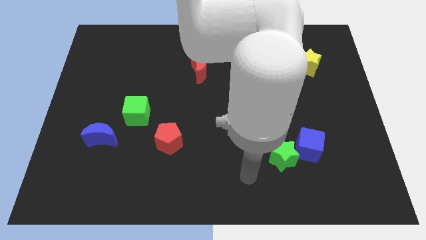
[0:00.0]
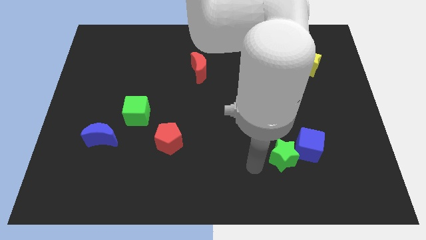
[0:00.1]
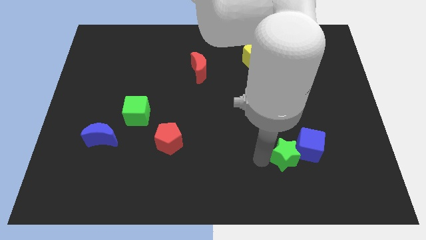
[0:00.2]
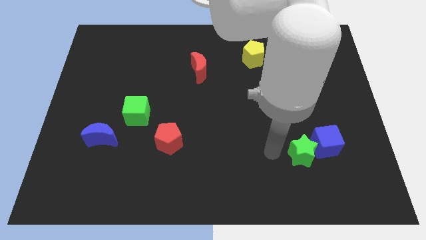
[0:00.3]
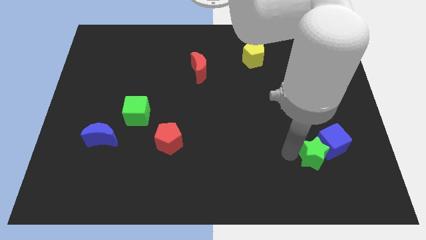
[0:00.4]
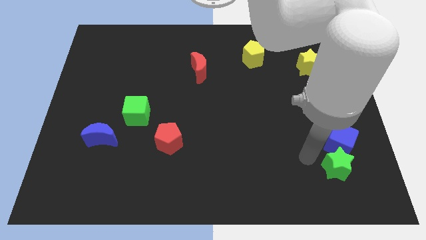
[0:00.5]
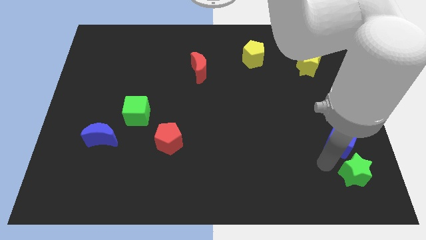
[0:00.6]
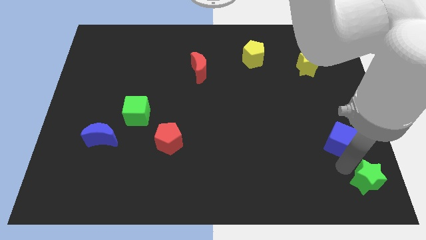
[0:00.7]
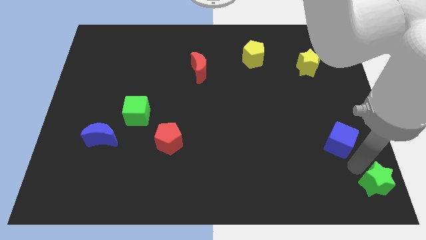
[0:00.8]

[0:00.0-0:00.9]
pull the blue cube apart from the green star

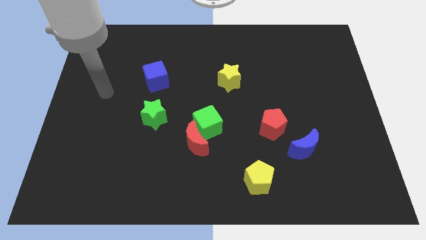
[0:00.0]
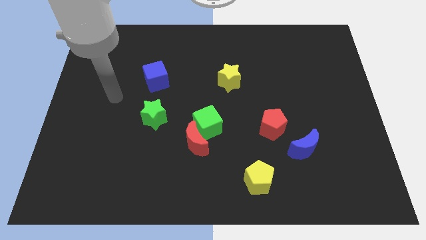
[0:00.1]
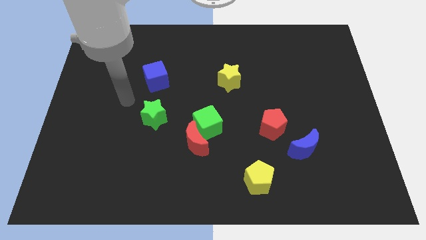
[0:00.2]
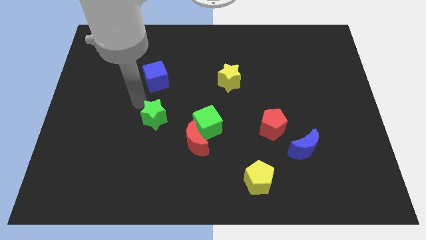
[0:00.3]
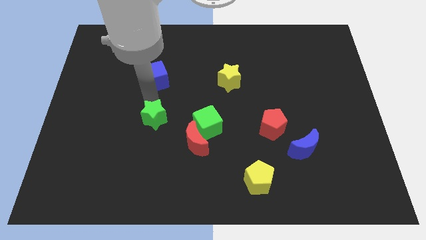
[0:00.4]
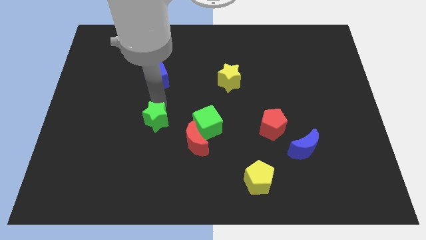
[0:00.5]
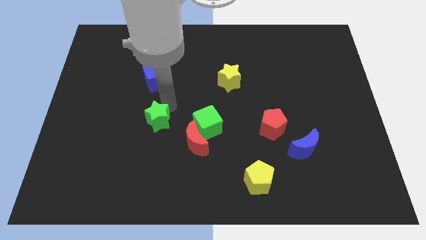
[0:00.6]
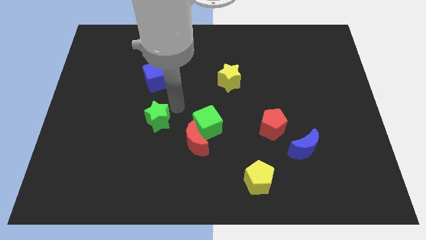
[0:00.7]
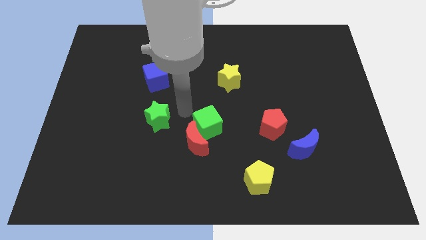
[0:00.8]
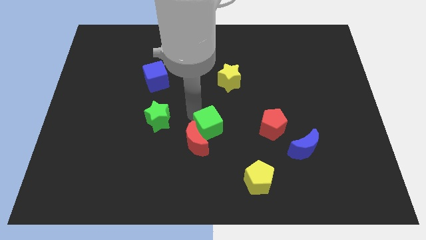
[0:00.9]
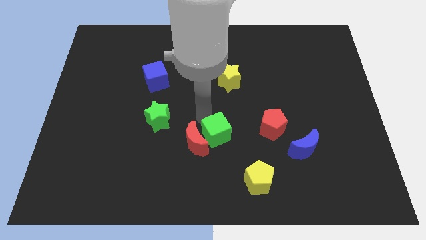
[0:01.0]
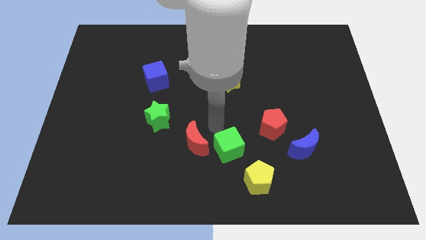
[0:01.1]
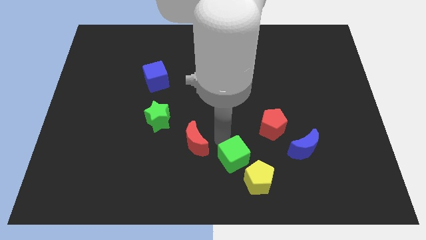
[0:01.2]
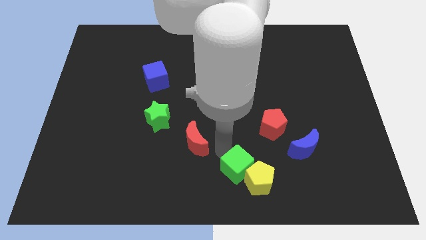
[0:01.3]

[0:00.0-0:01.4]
move the red moon away from the green cube

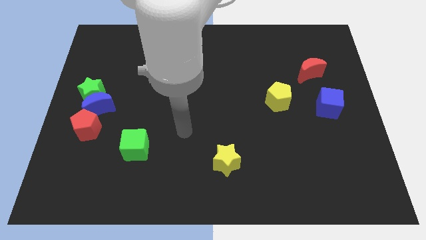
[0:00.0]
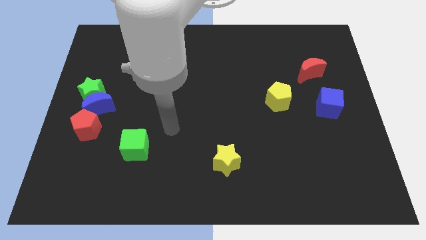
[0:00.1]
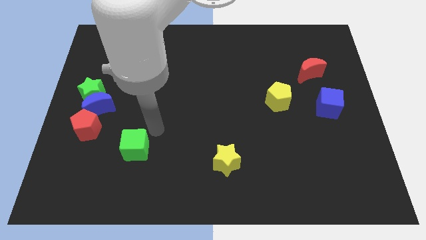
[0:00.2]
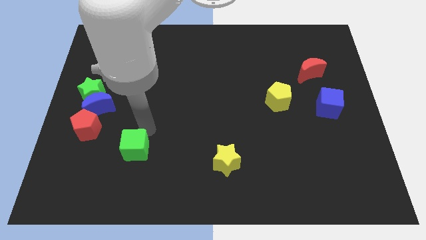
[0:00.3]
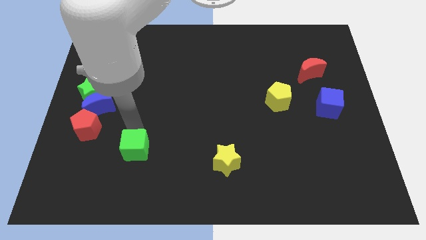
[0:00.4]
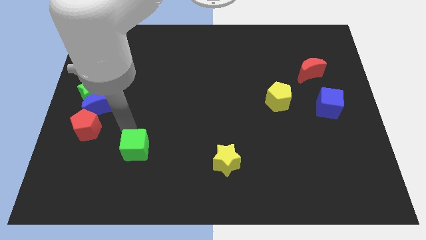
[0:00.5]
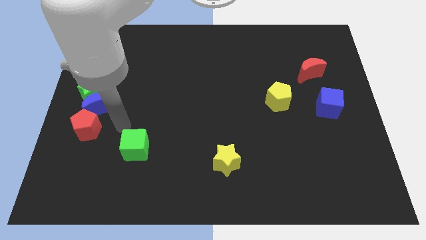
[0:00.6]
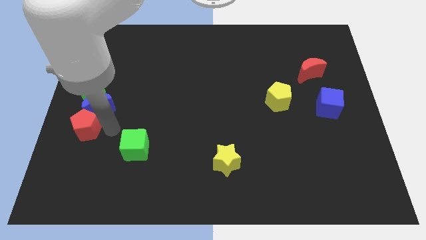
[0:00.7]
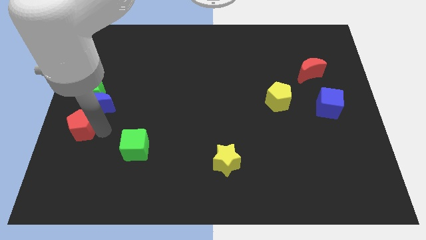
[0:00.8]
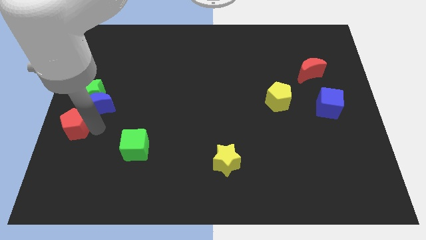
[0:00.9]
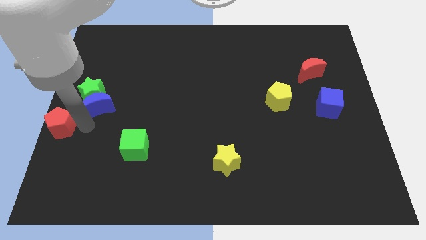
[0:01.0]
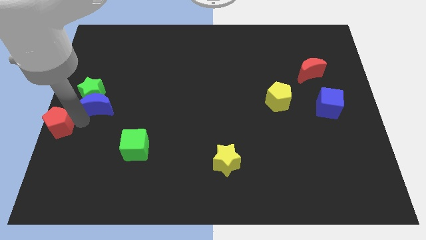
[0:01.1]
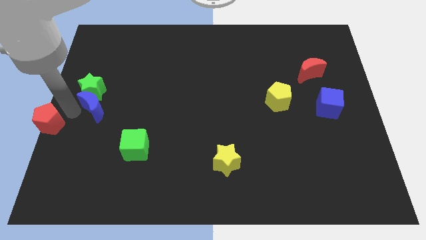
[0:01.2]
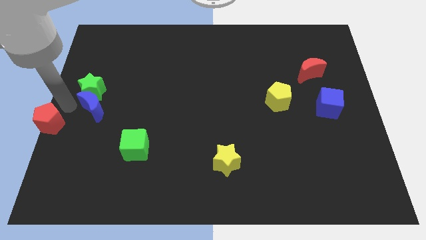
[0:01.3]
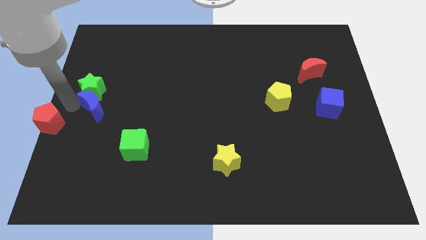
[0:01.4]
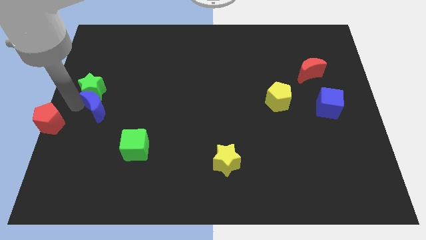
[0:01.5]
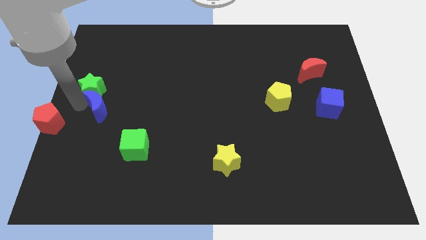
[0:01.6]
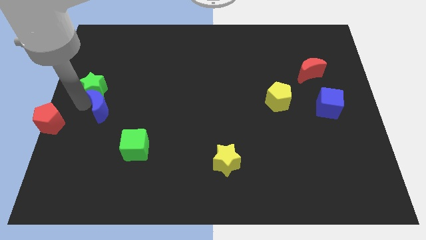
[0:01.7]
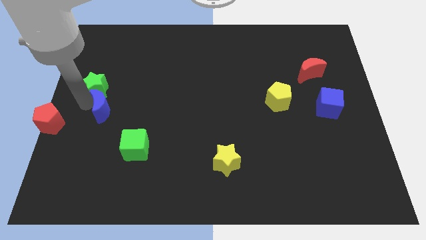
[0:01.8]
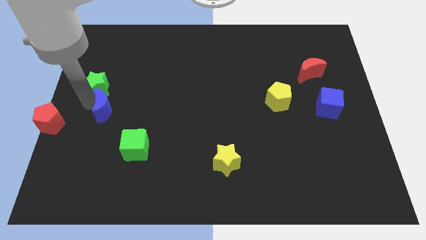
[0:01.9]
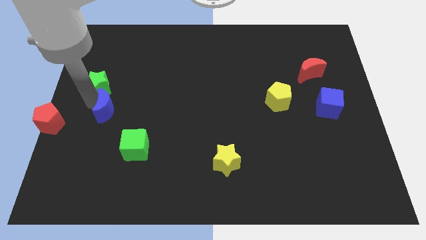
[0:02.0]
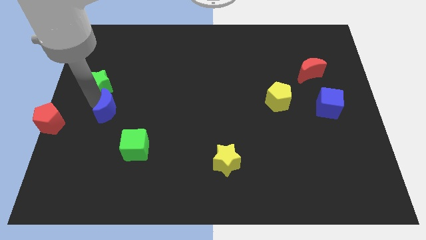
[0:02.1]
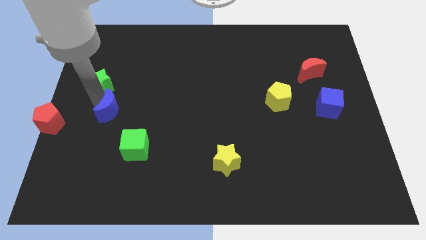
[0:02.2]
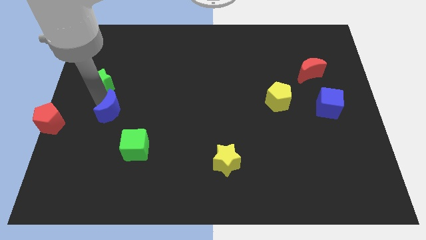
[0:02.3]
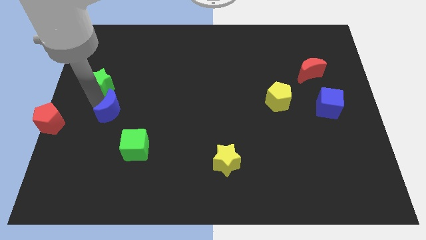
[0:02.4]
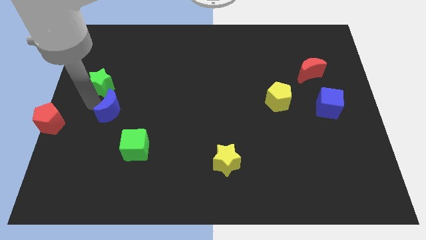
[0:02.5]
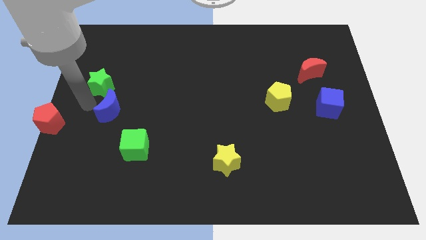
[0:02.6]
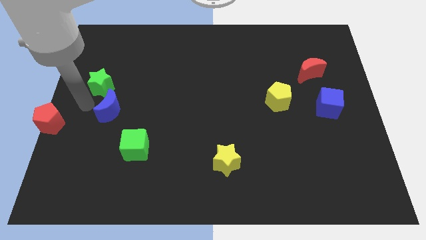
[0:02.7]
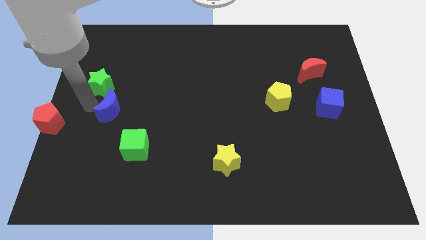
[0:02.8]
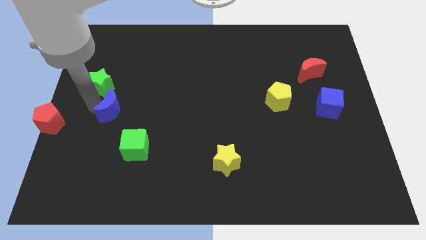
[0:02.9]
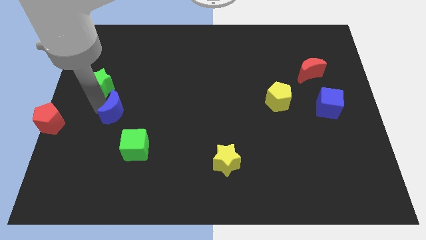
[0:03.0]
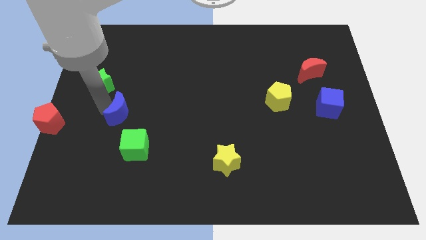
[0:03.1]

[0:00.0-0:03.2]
move the blue moon away from the green star and red pentagon

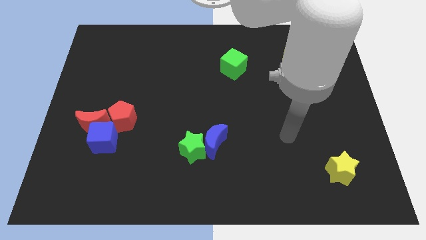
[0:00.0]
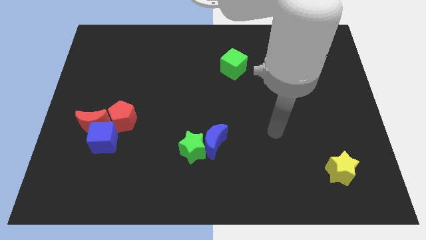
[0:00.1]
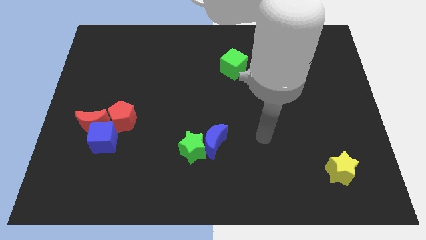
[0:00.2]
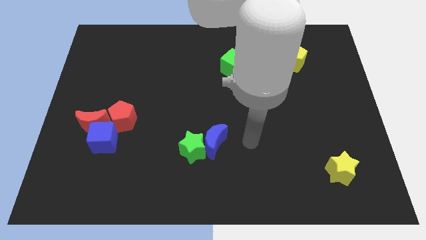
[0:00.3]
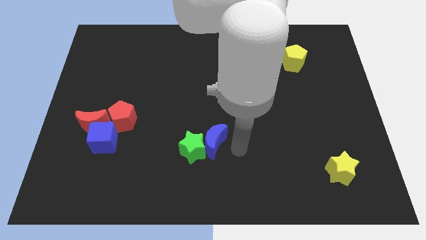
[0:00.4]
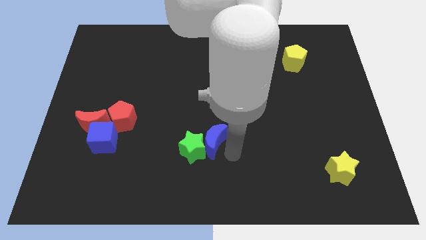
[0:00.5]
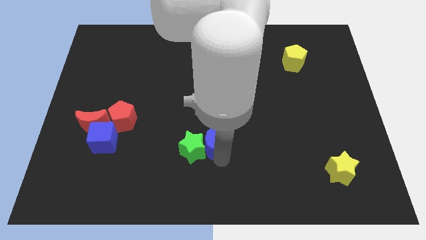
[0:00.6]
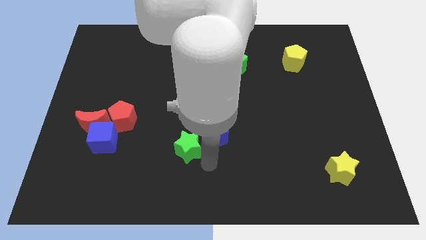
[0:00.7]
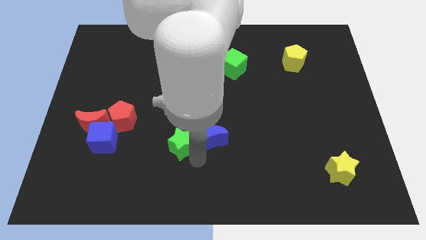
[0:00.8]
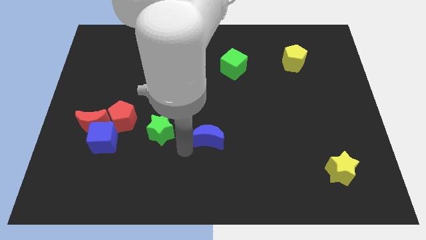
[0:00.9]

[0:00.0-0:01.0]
separate the blue moon from the green star

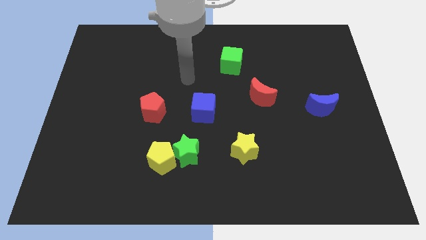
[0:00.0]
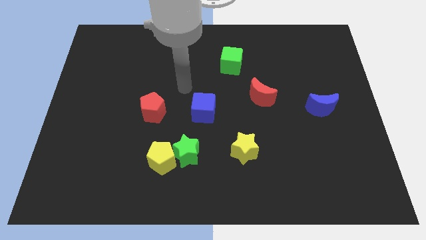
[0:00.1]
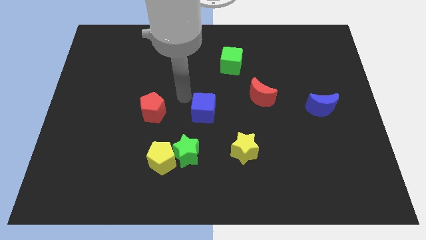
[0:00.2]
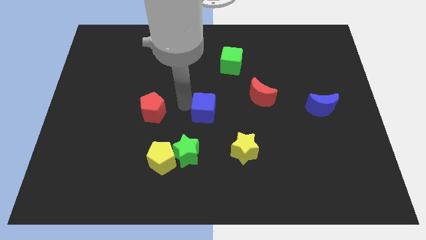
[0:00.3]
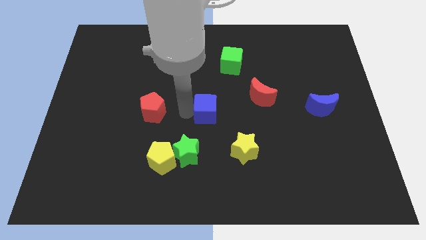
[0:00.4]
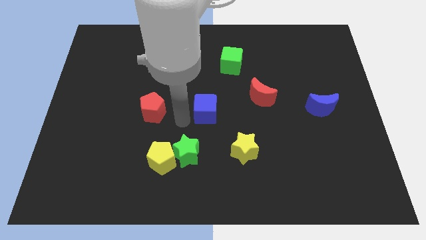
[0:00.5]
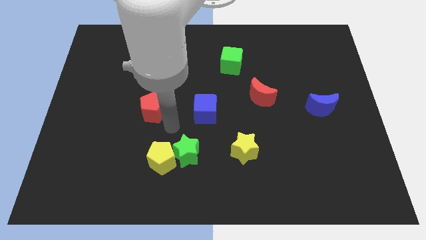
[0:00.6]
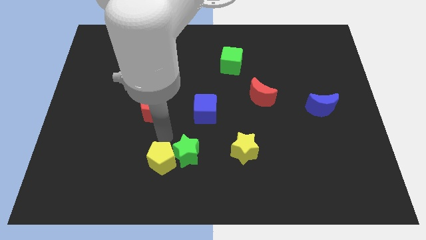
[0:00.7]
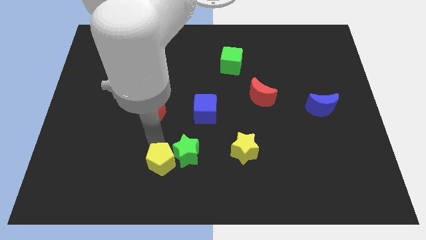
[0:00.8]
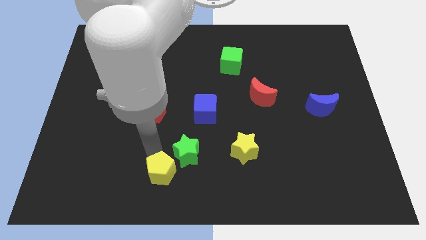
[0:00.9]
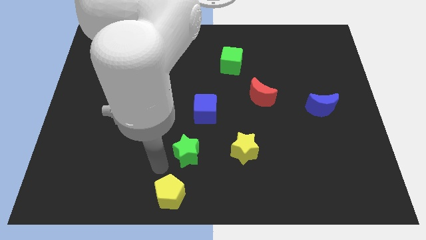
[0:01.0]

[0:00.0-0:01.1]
pull the green star apart from the yellow pentagon

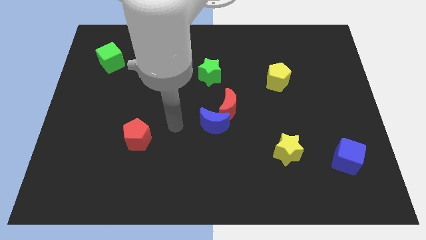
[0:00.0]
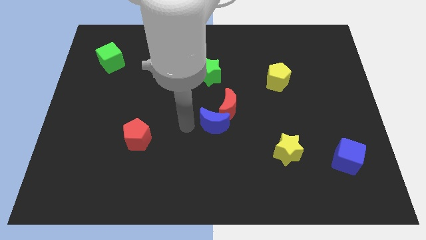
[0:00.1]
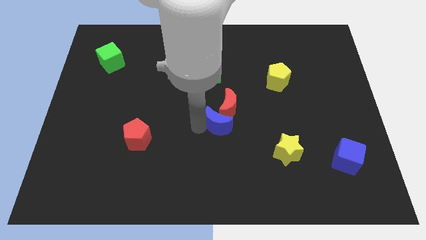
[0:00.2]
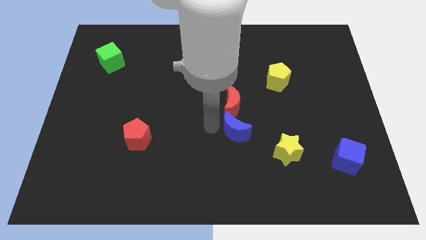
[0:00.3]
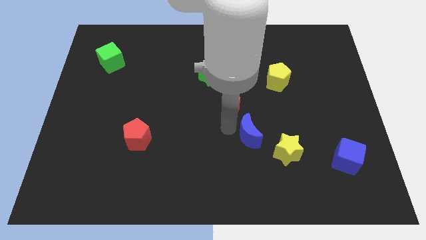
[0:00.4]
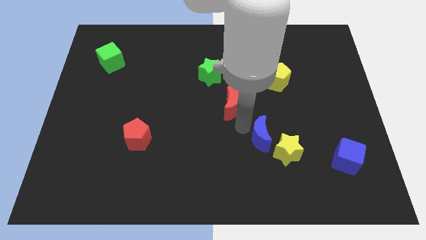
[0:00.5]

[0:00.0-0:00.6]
move the red moon away from the blue moon

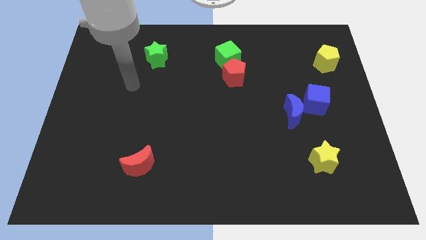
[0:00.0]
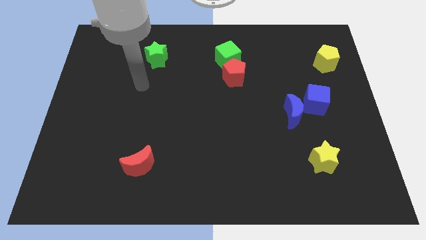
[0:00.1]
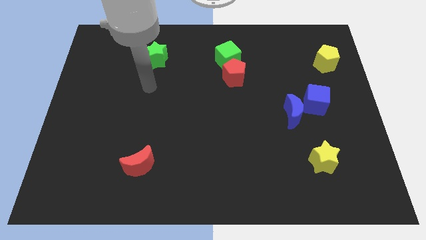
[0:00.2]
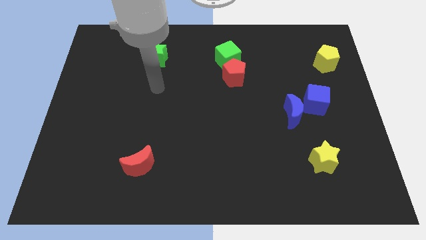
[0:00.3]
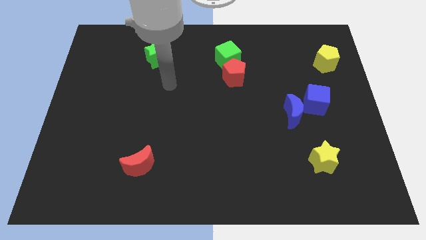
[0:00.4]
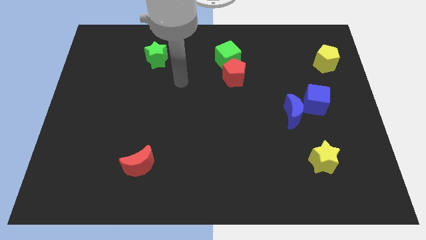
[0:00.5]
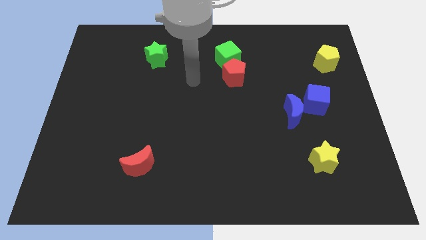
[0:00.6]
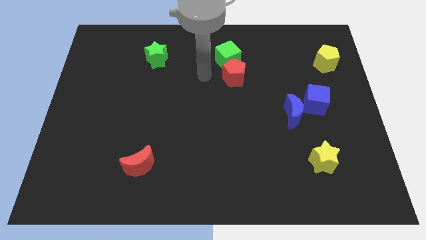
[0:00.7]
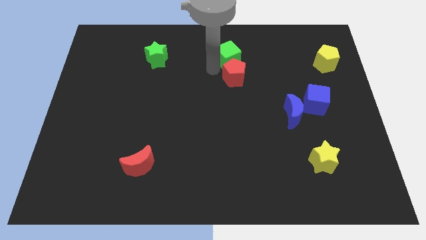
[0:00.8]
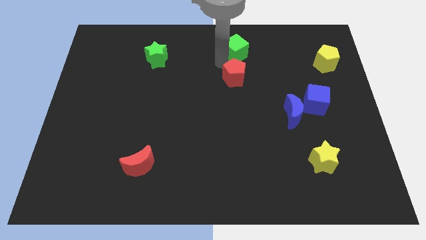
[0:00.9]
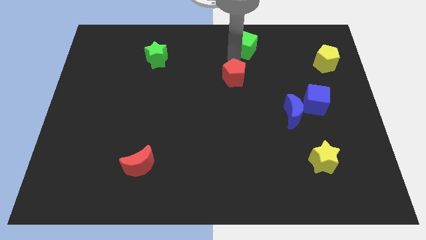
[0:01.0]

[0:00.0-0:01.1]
move the red pentagon away from the green cube
